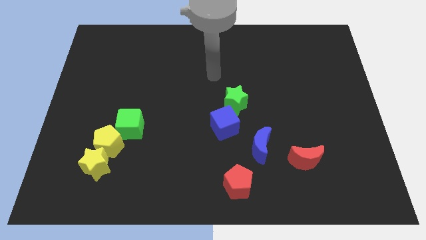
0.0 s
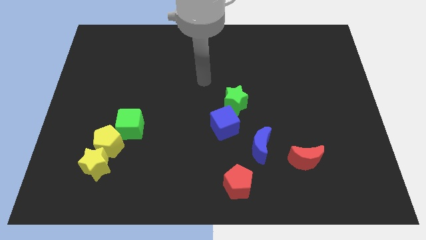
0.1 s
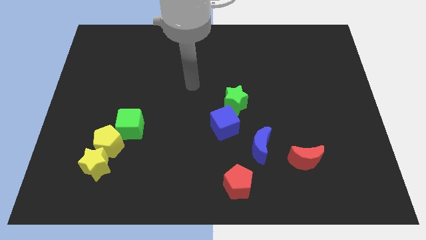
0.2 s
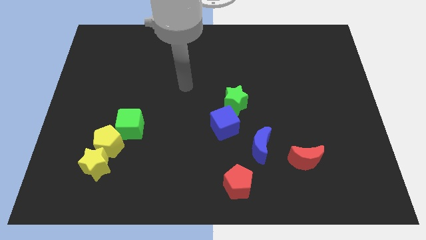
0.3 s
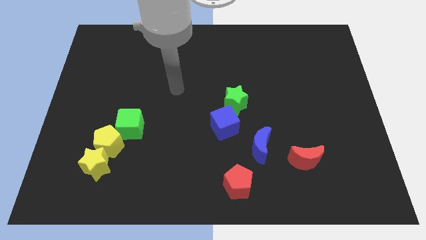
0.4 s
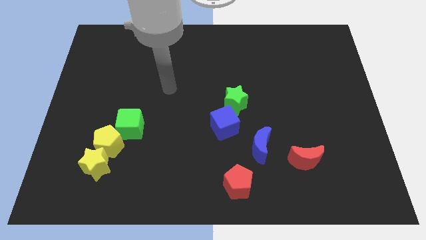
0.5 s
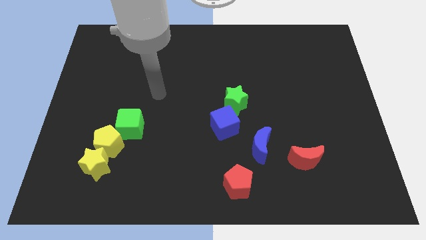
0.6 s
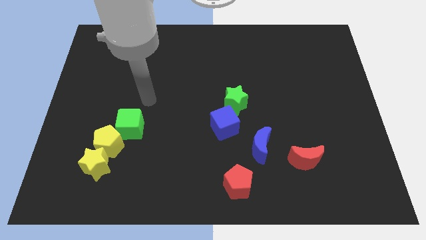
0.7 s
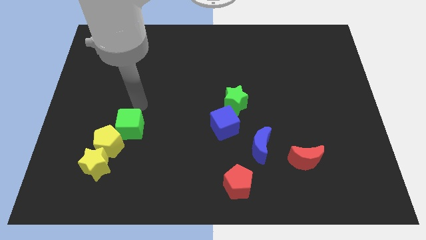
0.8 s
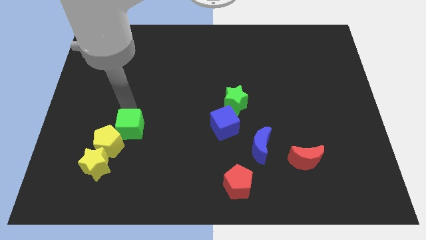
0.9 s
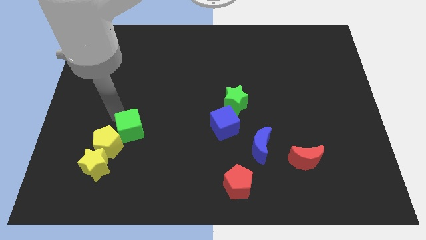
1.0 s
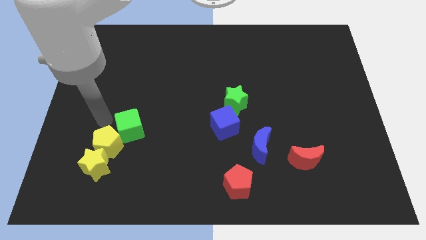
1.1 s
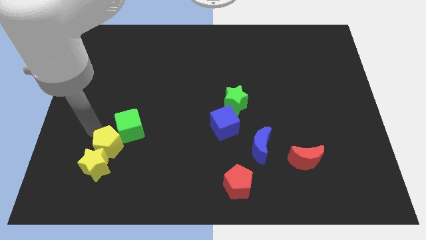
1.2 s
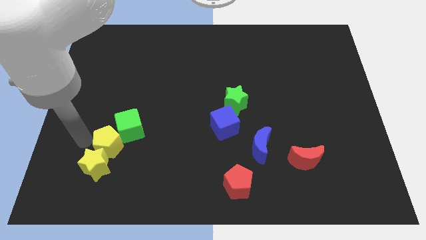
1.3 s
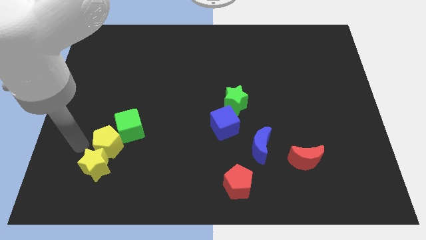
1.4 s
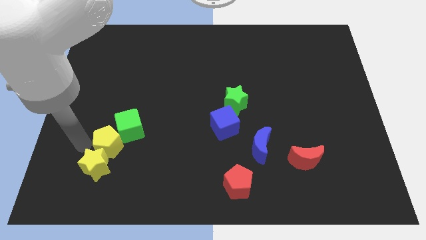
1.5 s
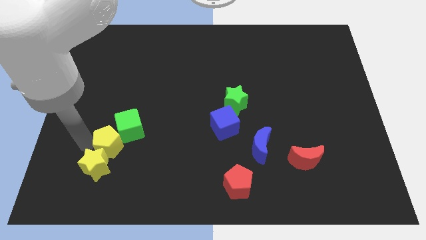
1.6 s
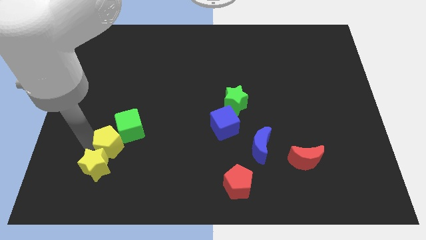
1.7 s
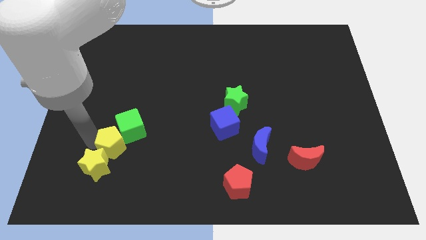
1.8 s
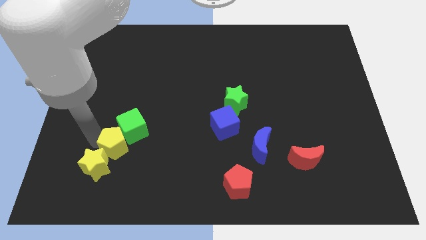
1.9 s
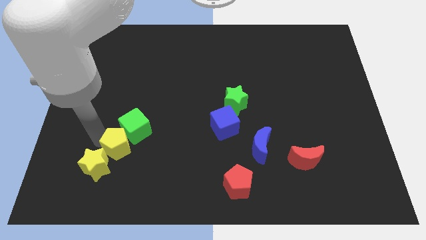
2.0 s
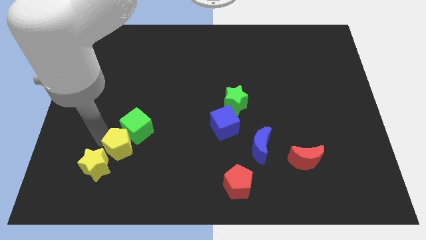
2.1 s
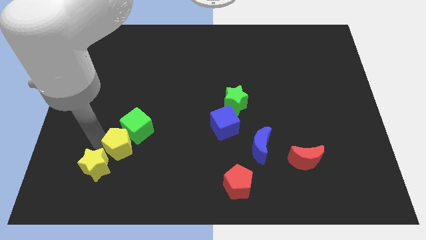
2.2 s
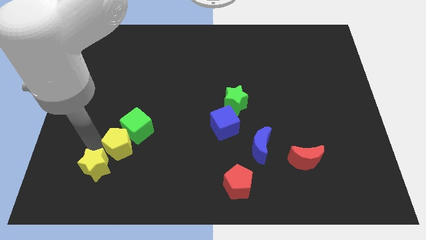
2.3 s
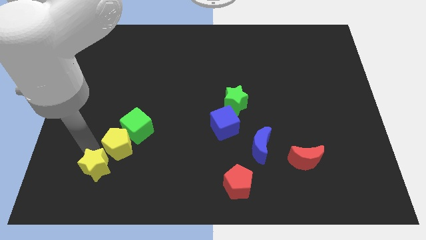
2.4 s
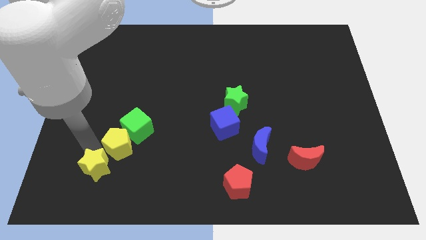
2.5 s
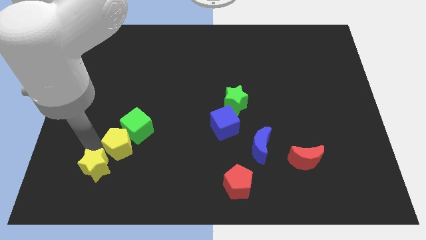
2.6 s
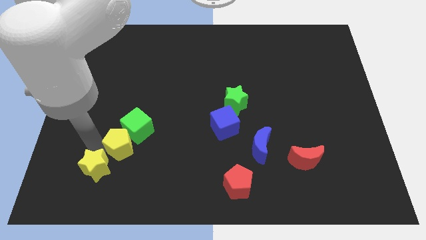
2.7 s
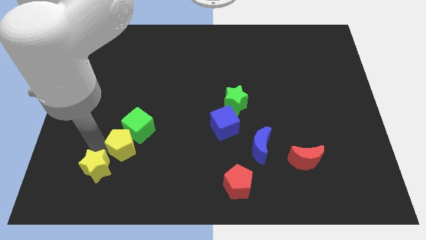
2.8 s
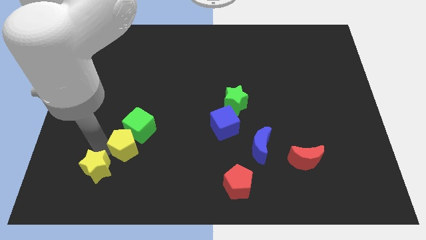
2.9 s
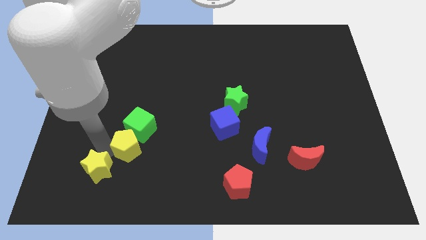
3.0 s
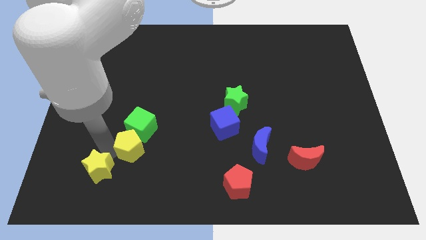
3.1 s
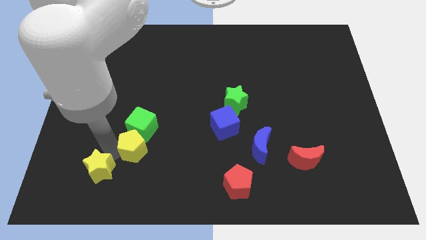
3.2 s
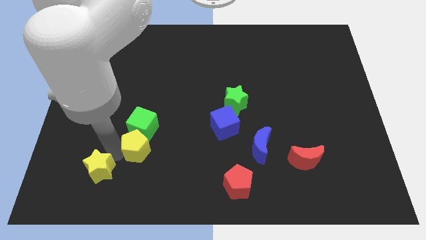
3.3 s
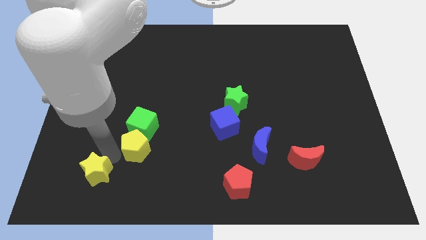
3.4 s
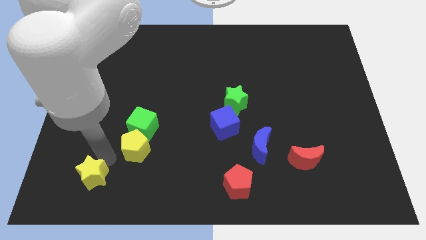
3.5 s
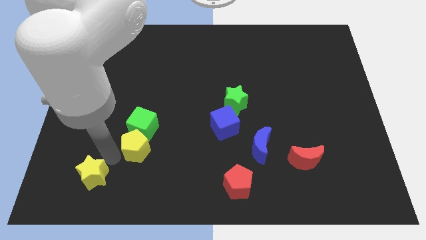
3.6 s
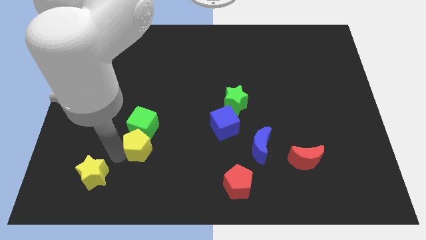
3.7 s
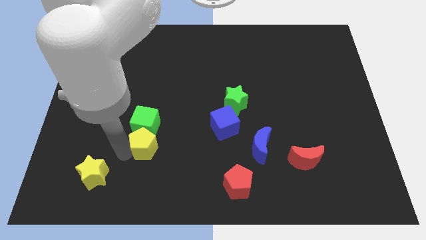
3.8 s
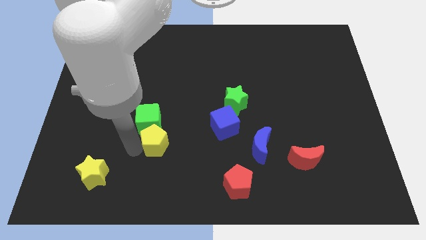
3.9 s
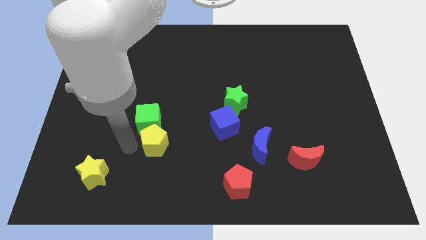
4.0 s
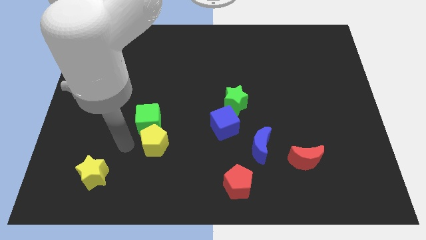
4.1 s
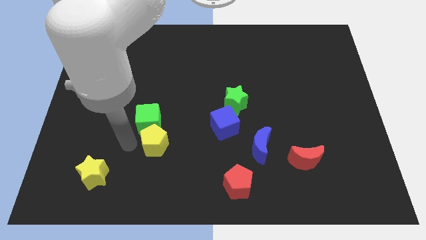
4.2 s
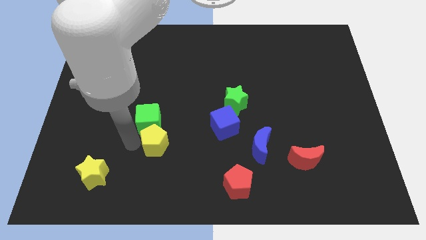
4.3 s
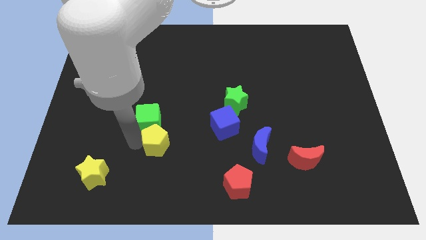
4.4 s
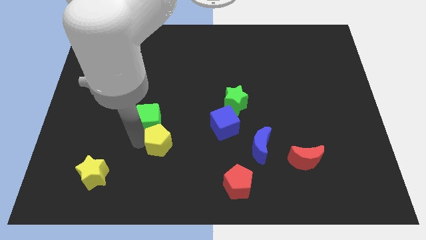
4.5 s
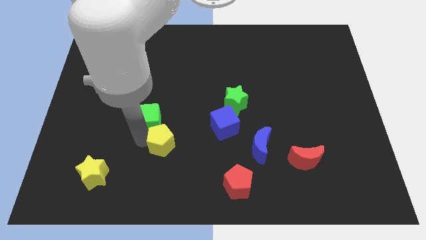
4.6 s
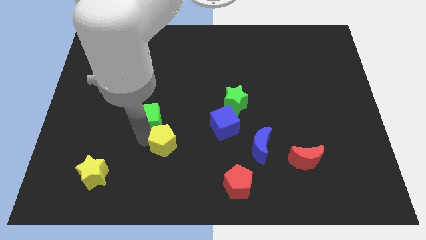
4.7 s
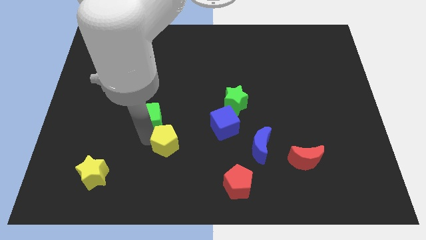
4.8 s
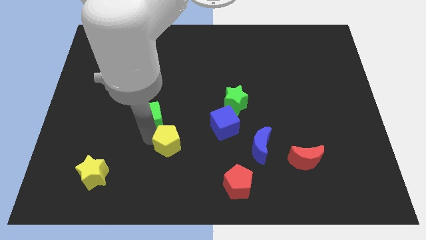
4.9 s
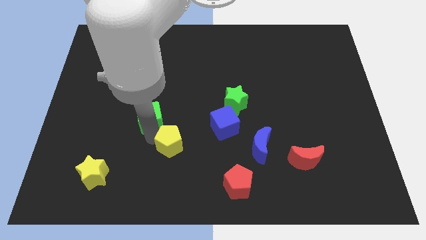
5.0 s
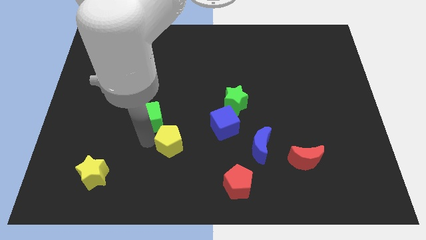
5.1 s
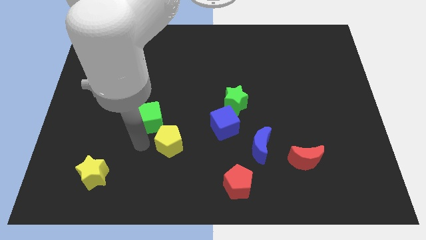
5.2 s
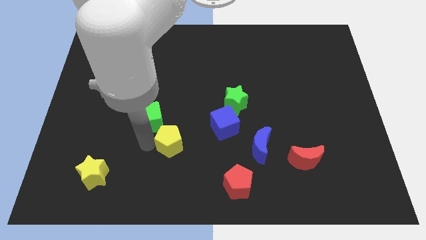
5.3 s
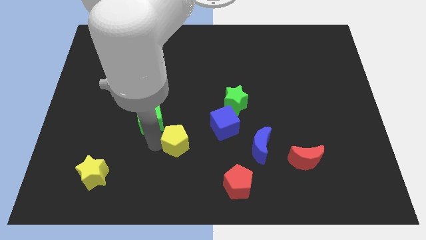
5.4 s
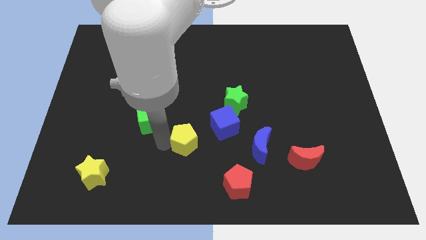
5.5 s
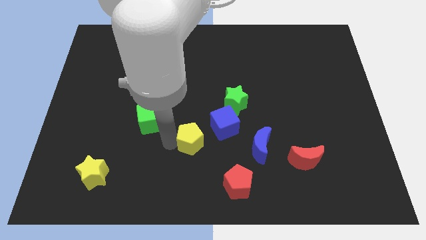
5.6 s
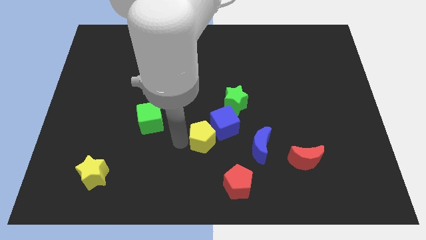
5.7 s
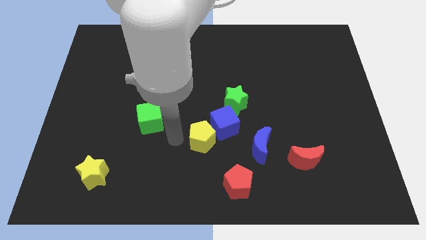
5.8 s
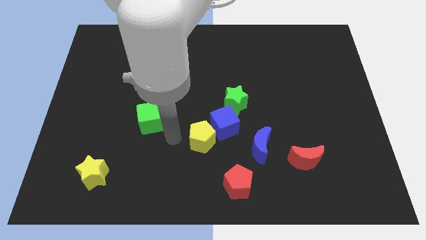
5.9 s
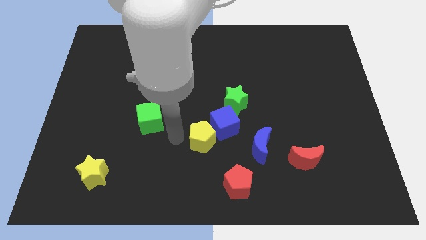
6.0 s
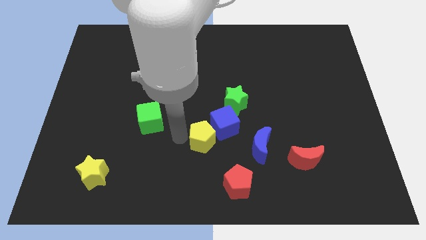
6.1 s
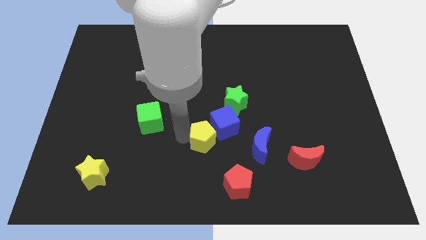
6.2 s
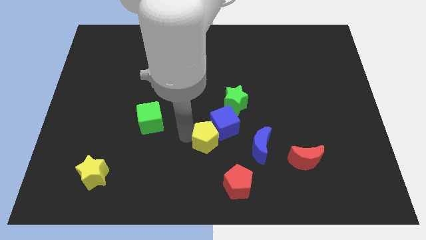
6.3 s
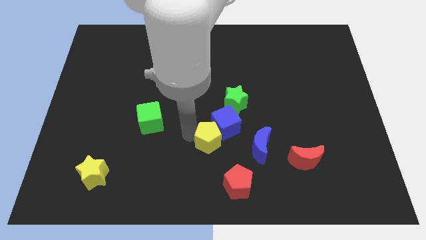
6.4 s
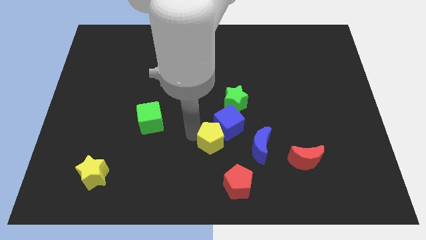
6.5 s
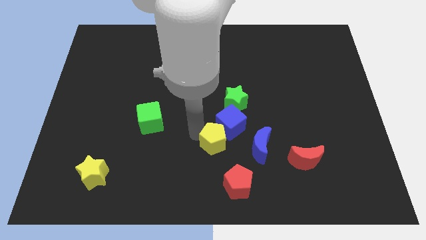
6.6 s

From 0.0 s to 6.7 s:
put the yellow pentagon to the top of the red pentagon

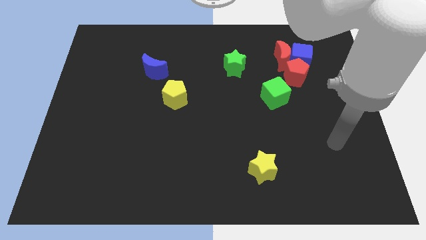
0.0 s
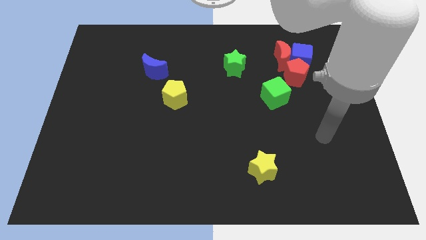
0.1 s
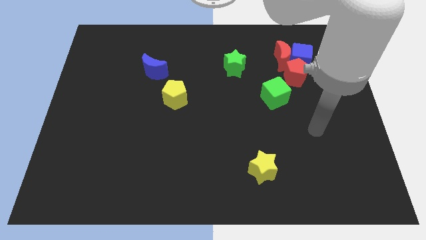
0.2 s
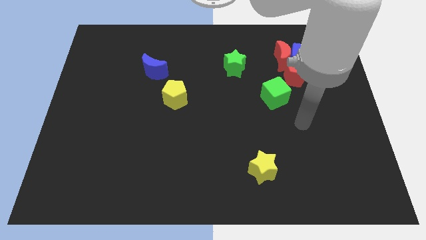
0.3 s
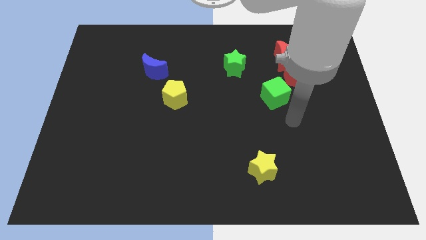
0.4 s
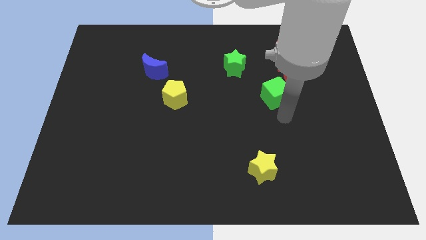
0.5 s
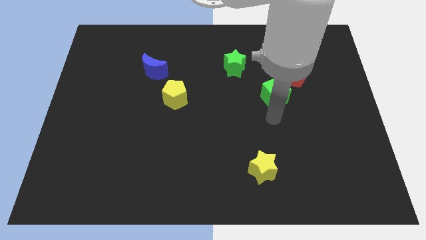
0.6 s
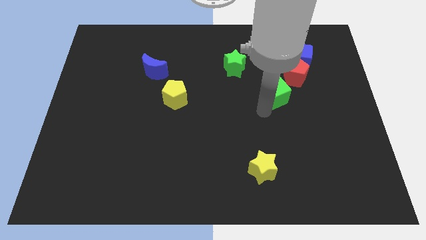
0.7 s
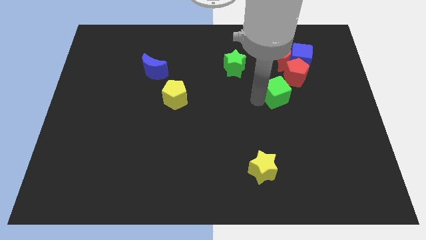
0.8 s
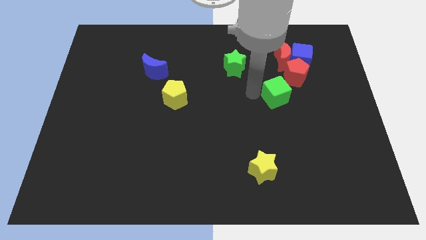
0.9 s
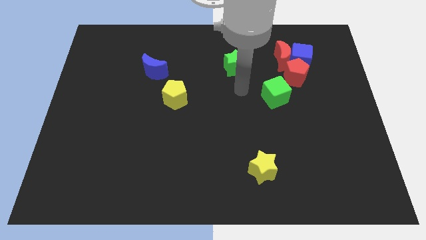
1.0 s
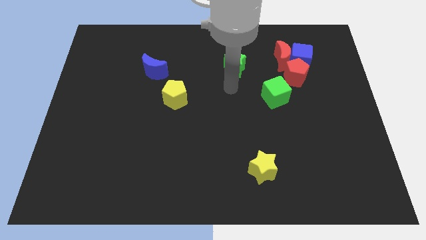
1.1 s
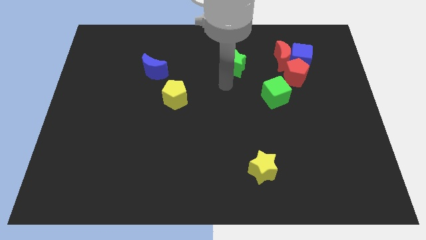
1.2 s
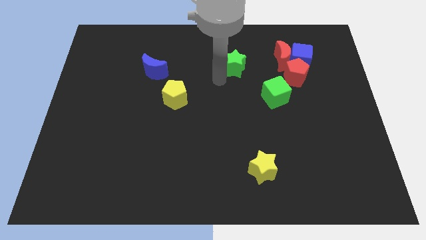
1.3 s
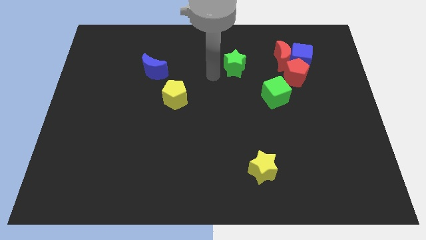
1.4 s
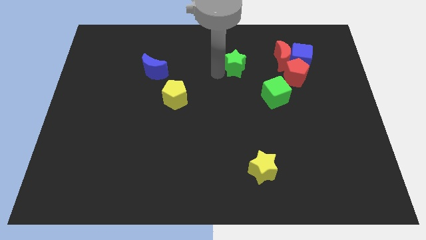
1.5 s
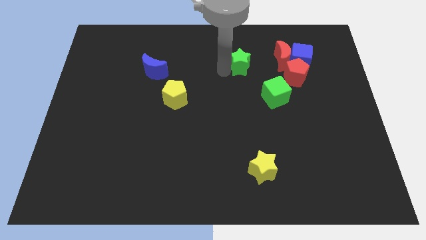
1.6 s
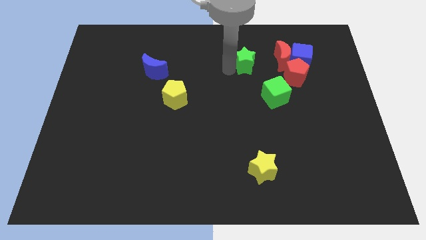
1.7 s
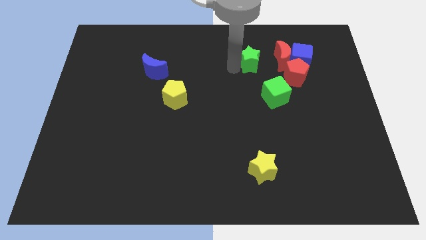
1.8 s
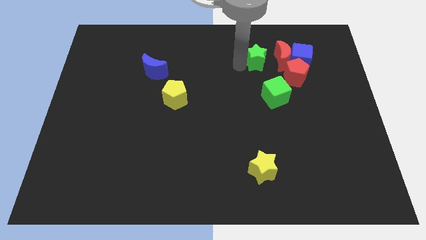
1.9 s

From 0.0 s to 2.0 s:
push the green star diagonally up and to the left of the red pentagon
